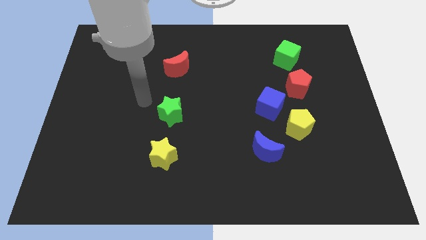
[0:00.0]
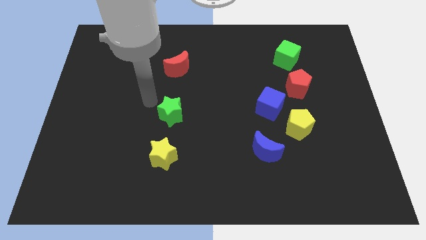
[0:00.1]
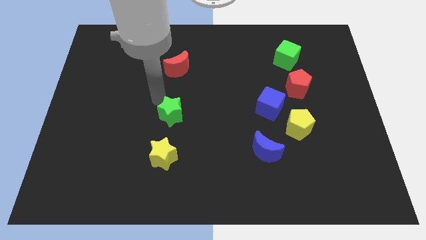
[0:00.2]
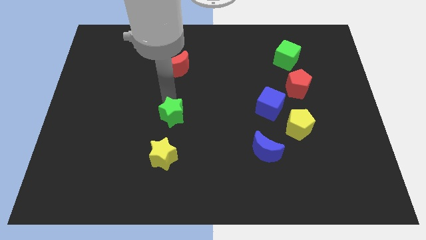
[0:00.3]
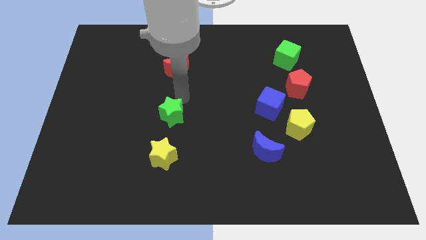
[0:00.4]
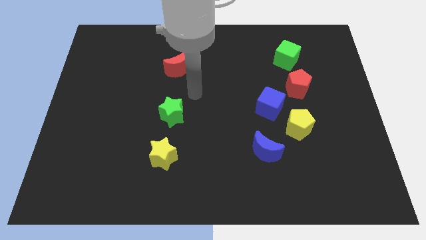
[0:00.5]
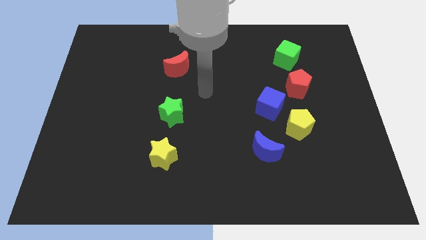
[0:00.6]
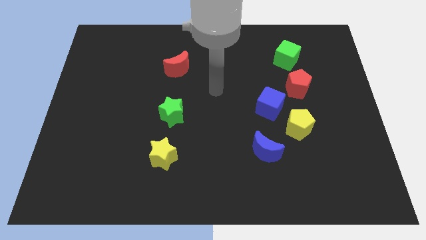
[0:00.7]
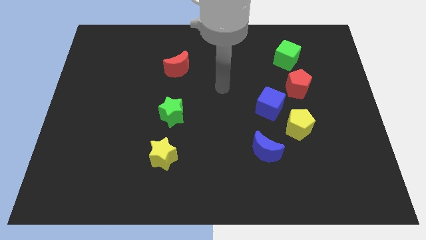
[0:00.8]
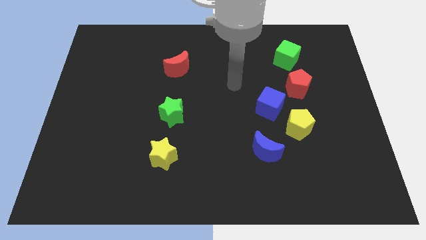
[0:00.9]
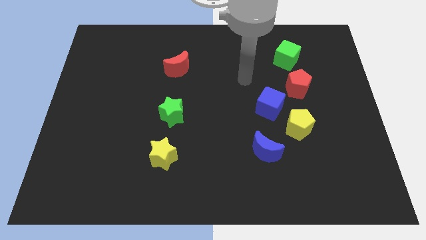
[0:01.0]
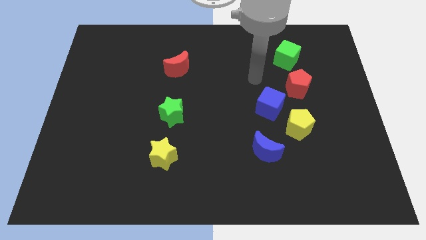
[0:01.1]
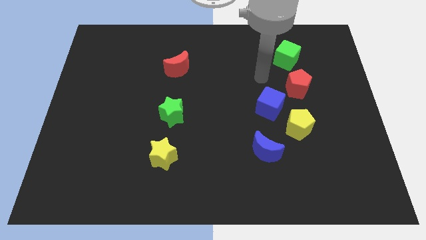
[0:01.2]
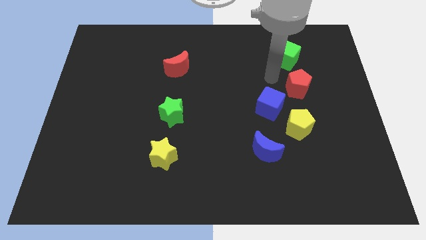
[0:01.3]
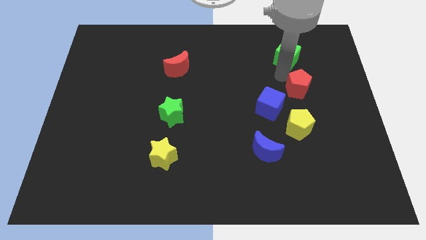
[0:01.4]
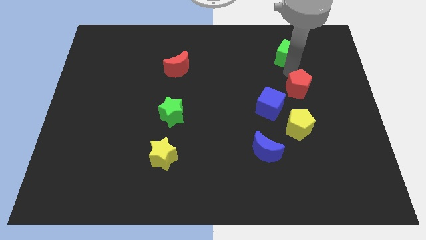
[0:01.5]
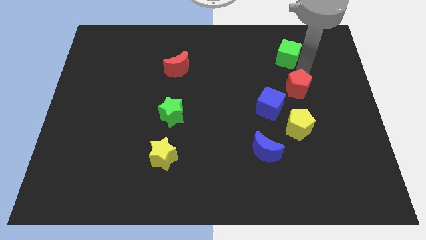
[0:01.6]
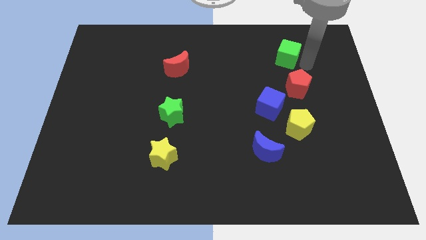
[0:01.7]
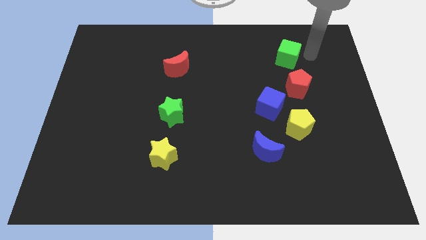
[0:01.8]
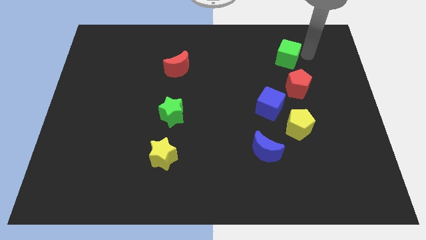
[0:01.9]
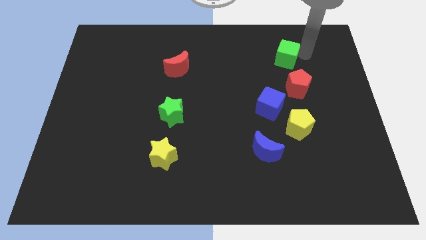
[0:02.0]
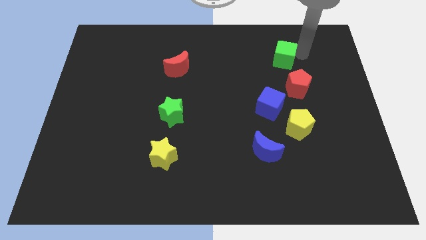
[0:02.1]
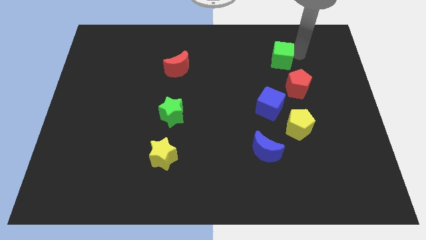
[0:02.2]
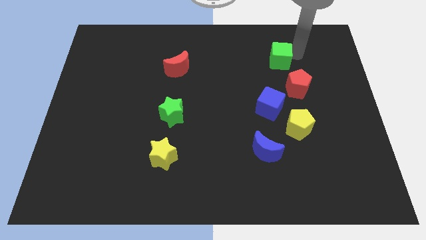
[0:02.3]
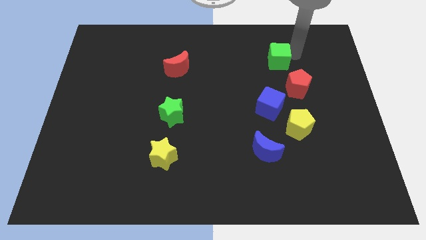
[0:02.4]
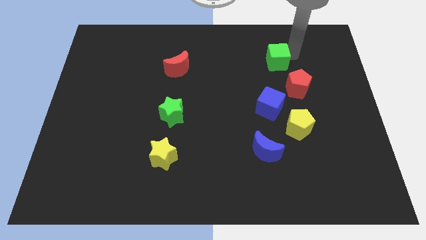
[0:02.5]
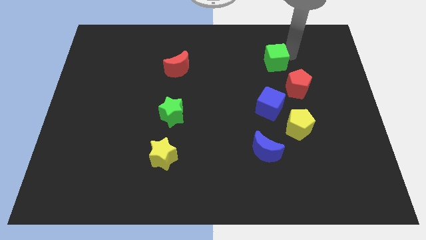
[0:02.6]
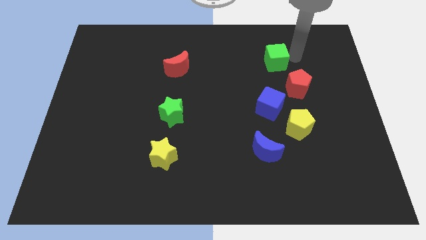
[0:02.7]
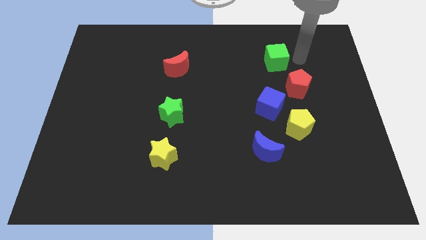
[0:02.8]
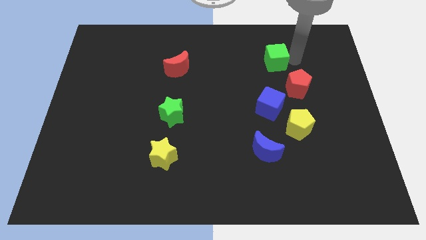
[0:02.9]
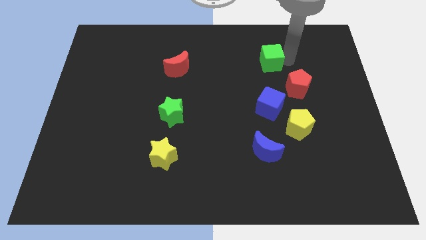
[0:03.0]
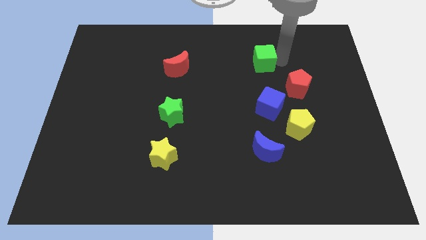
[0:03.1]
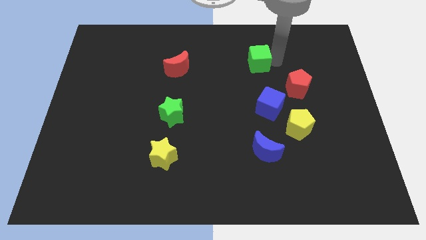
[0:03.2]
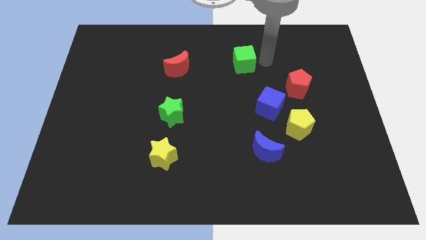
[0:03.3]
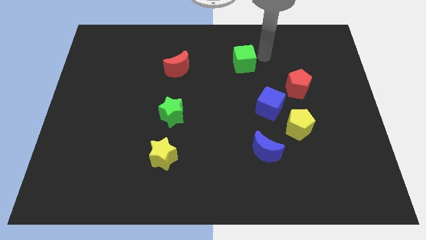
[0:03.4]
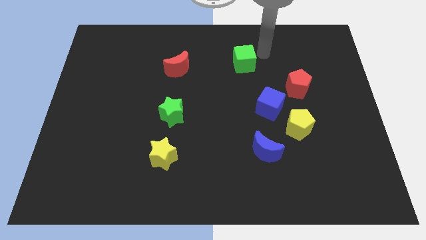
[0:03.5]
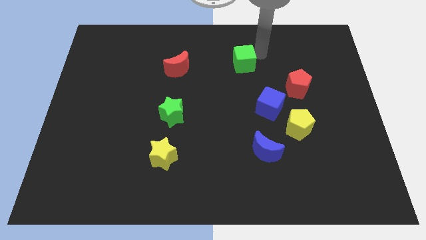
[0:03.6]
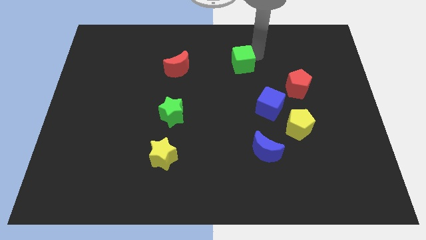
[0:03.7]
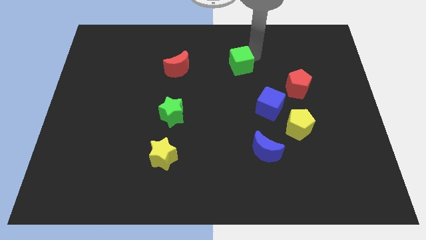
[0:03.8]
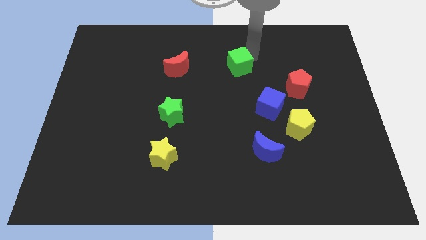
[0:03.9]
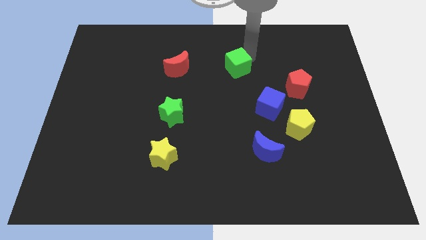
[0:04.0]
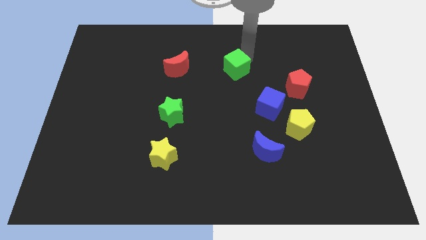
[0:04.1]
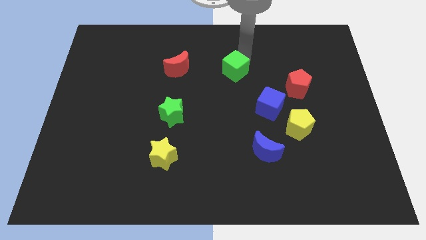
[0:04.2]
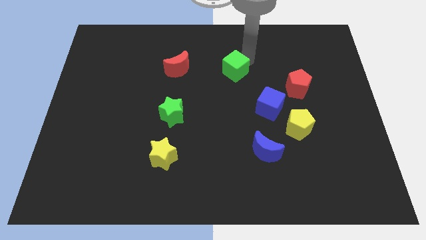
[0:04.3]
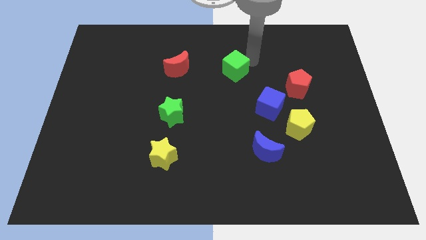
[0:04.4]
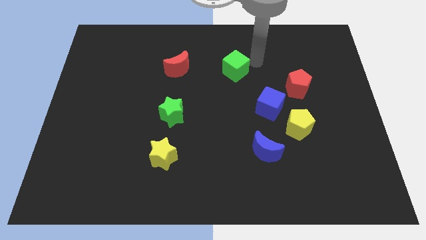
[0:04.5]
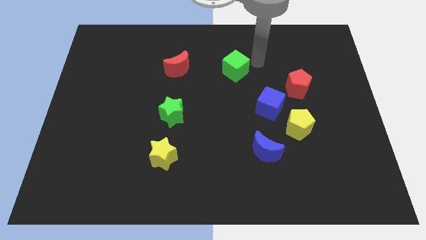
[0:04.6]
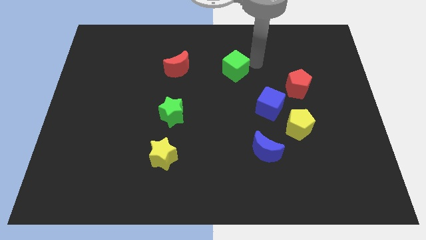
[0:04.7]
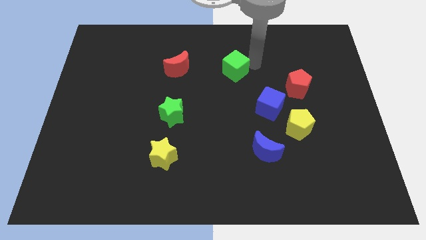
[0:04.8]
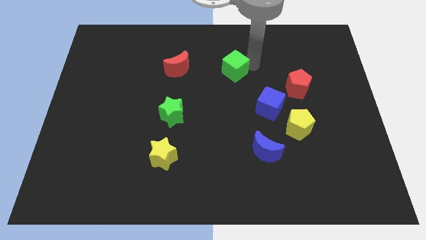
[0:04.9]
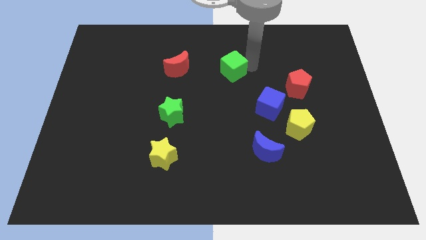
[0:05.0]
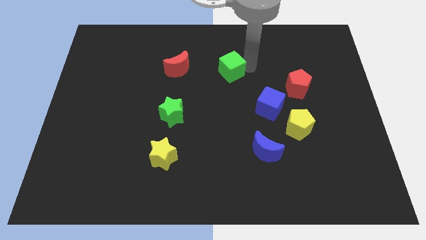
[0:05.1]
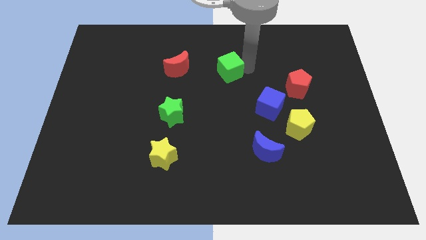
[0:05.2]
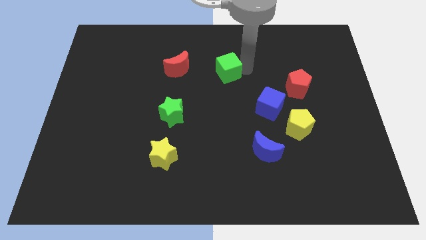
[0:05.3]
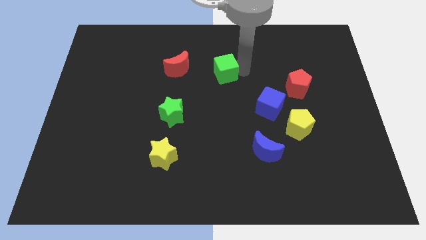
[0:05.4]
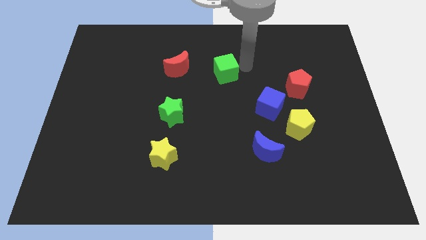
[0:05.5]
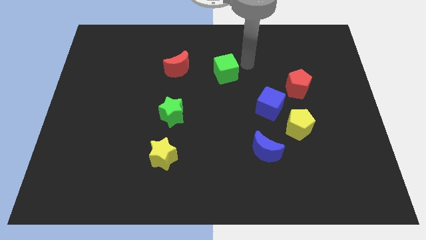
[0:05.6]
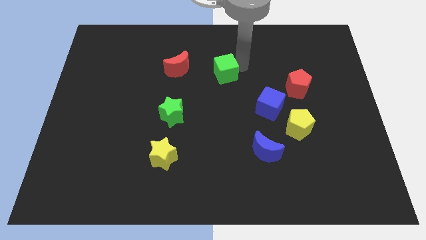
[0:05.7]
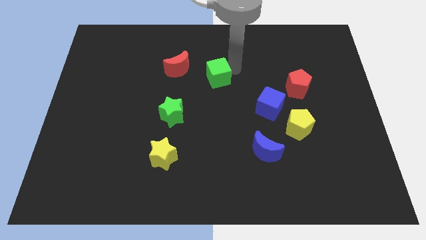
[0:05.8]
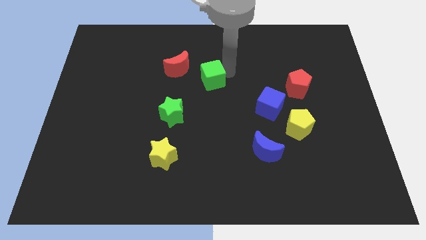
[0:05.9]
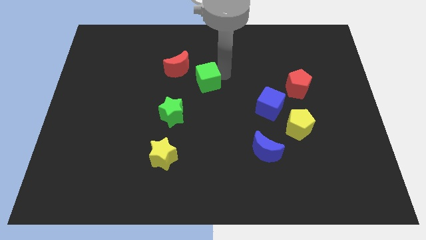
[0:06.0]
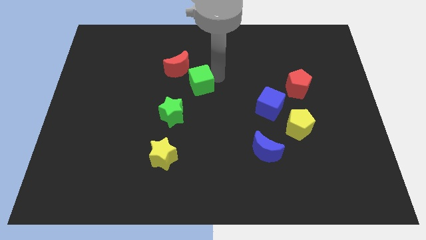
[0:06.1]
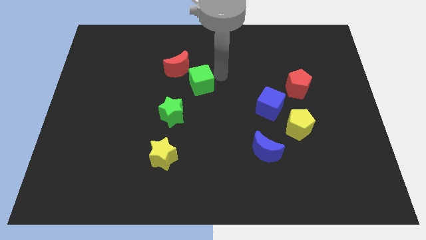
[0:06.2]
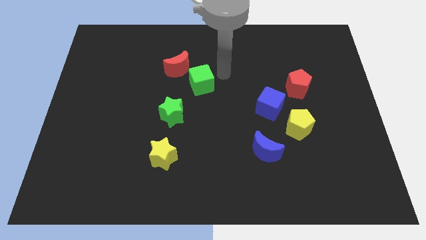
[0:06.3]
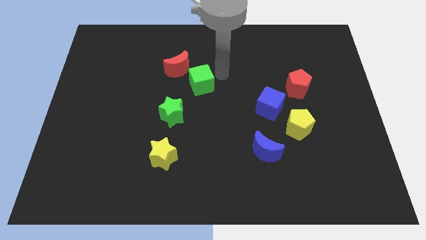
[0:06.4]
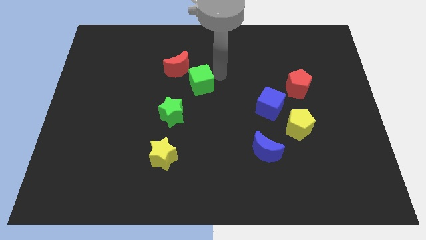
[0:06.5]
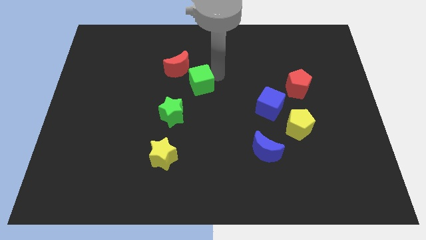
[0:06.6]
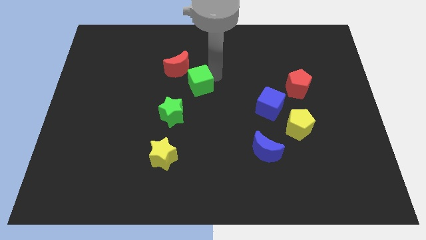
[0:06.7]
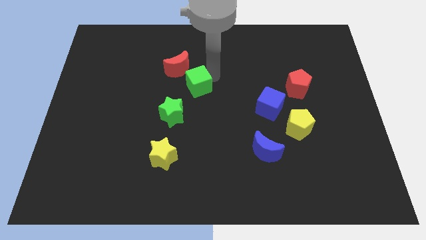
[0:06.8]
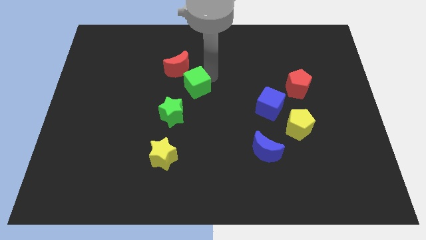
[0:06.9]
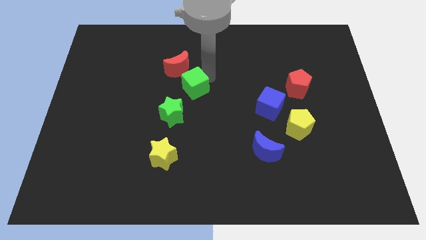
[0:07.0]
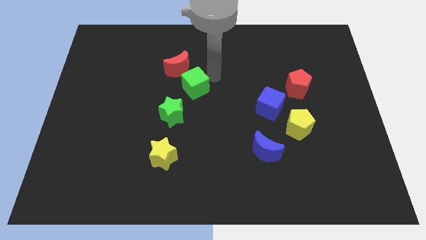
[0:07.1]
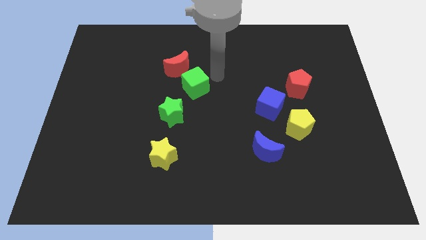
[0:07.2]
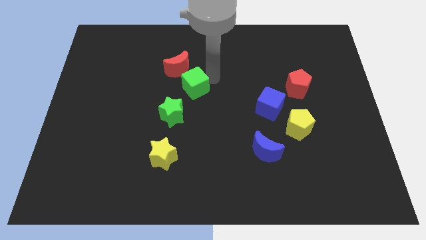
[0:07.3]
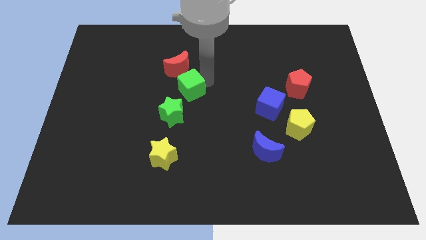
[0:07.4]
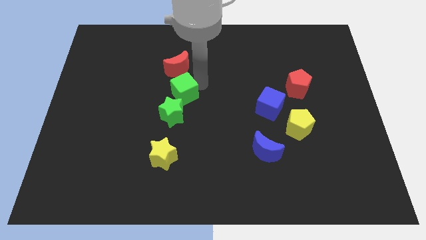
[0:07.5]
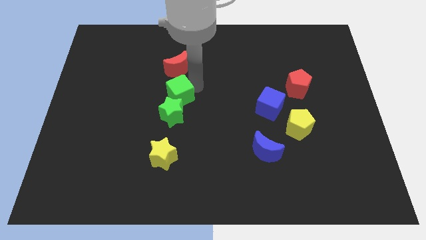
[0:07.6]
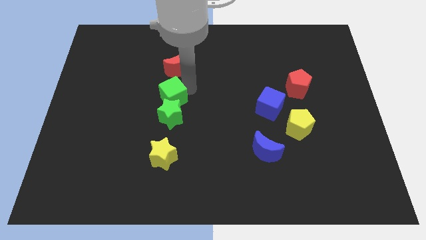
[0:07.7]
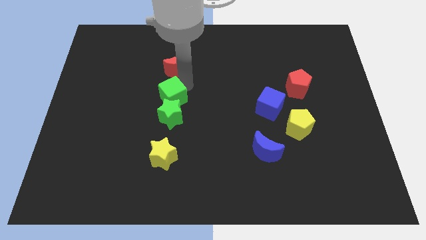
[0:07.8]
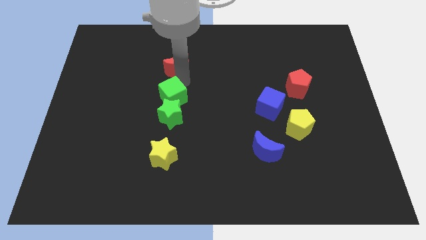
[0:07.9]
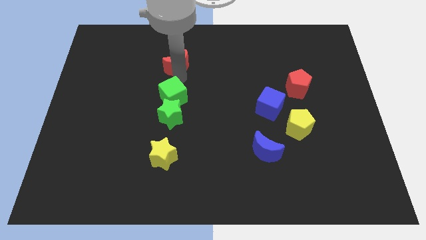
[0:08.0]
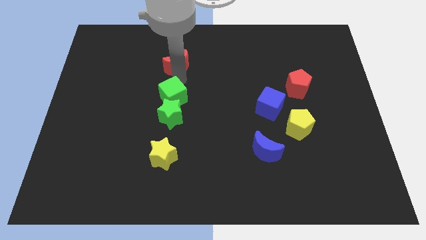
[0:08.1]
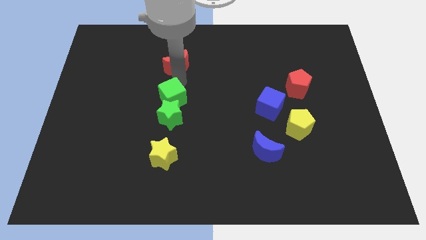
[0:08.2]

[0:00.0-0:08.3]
slide the green cube to the top of the yellow star
